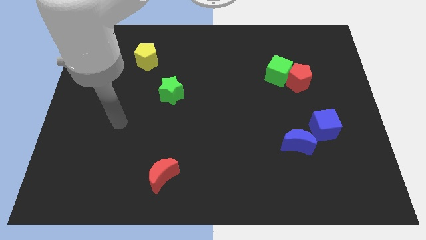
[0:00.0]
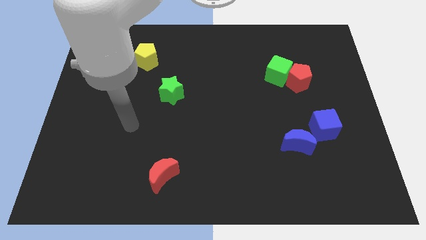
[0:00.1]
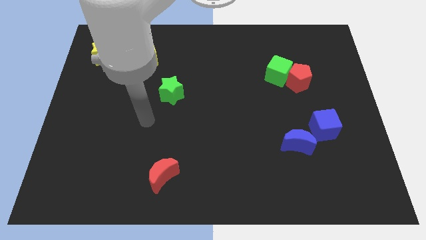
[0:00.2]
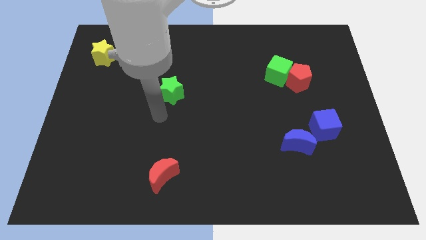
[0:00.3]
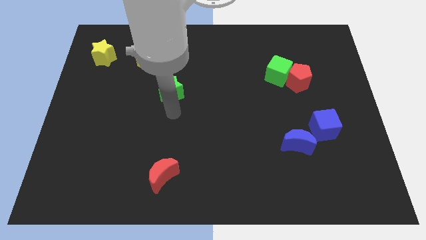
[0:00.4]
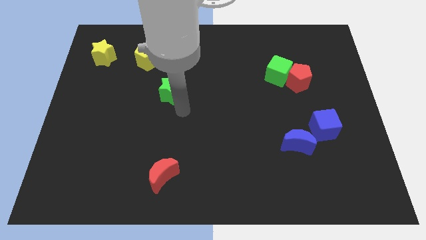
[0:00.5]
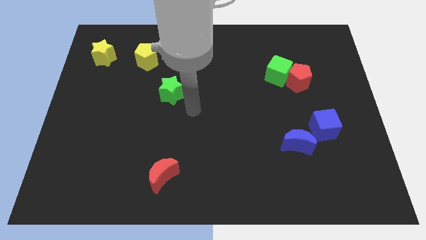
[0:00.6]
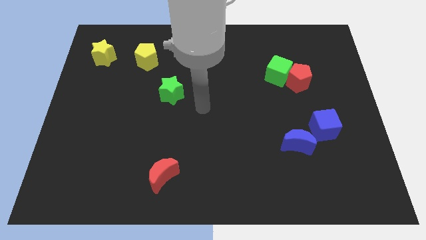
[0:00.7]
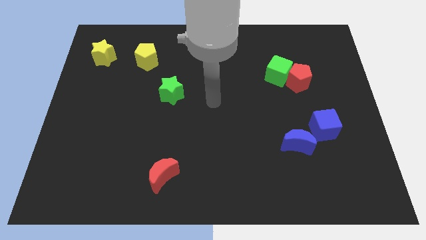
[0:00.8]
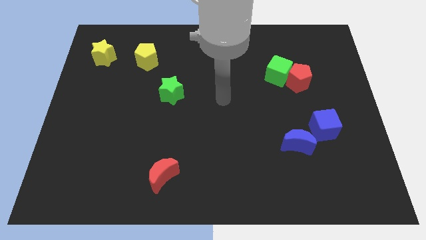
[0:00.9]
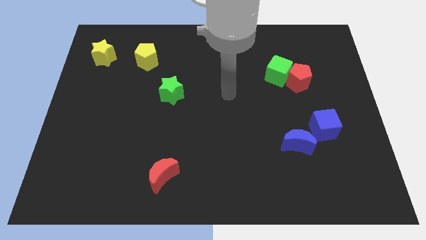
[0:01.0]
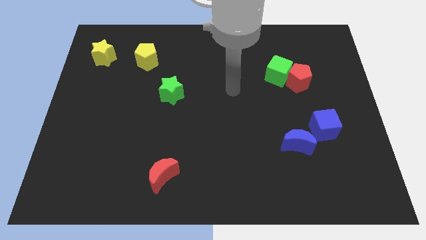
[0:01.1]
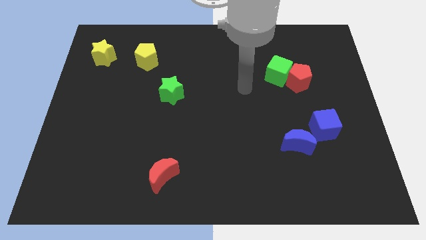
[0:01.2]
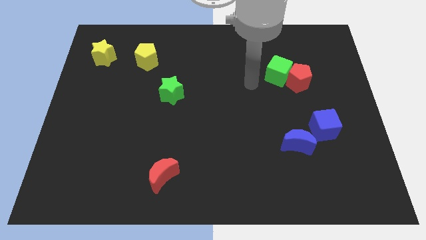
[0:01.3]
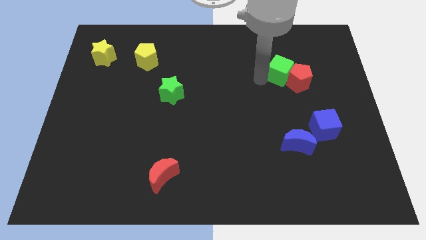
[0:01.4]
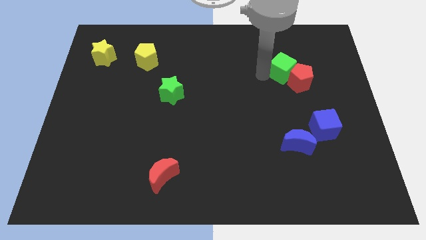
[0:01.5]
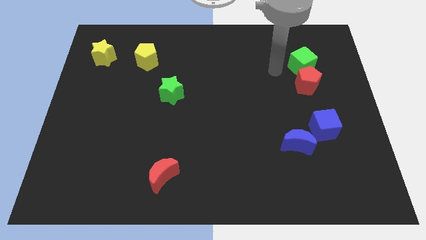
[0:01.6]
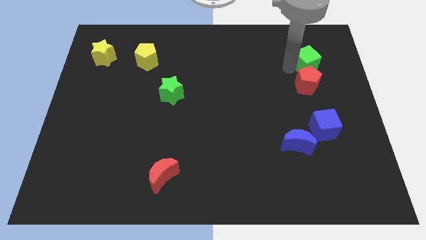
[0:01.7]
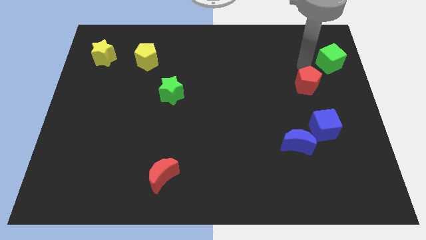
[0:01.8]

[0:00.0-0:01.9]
separate the red pentagon from the green cube

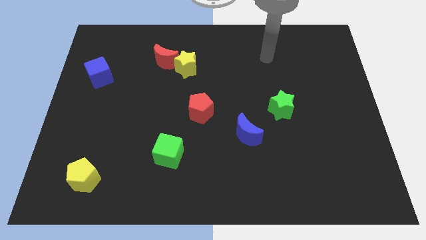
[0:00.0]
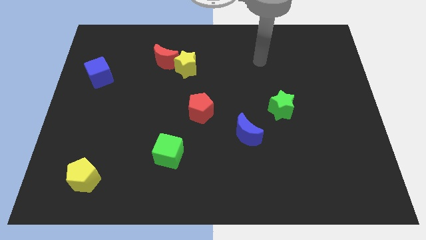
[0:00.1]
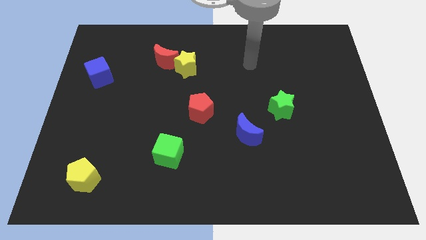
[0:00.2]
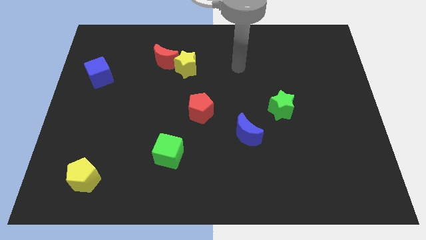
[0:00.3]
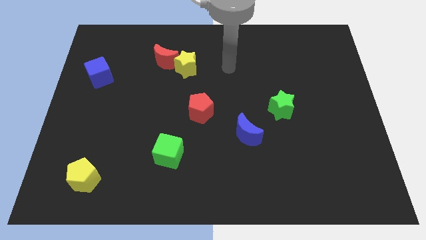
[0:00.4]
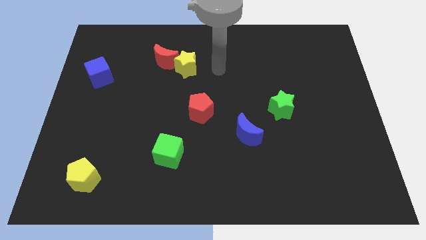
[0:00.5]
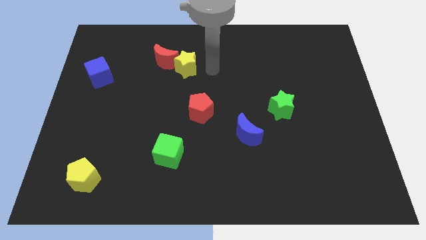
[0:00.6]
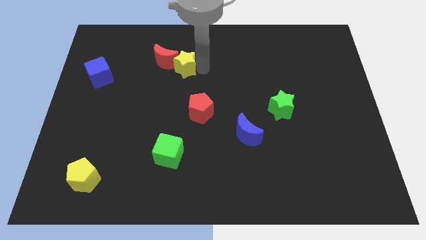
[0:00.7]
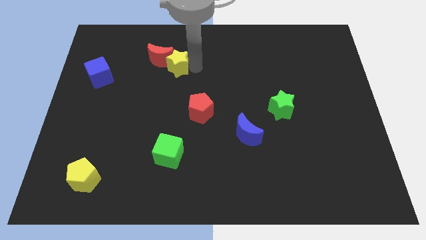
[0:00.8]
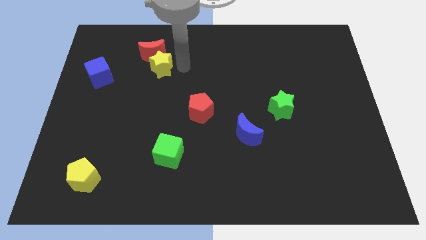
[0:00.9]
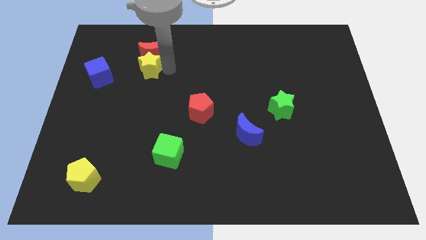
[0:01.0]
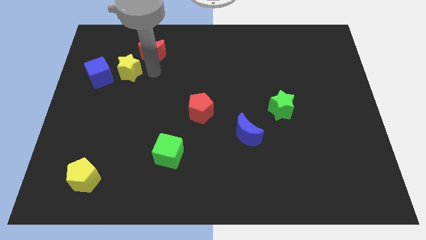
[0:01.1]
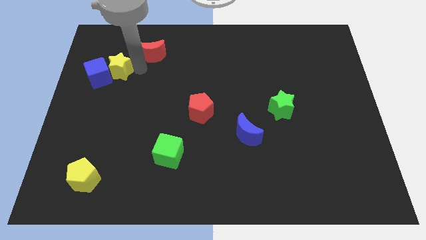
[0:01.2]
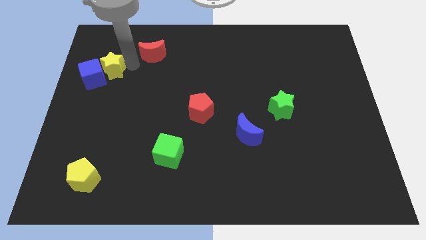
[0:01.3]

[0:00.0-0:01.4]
move the red moon away from the yellow star

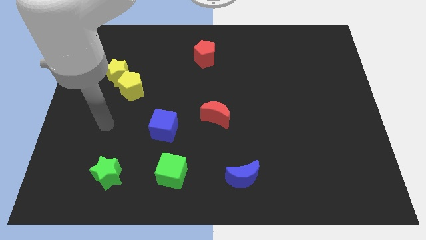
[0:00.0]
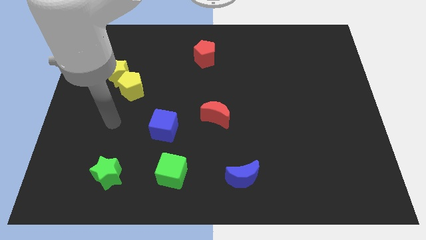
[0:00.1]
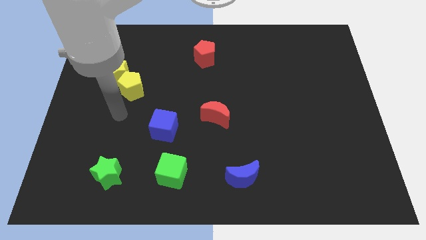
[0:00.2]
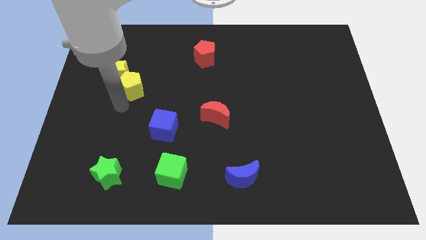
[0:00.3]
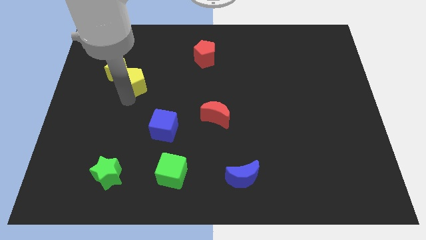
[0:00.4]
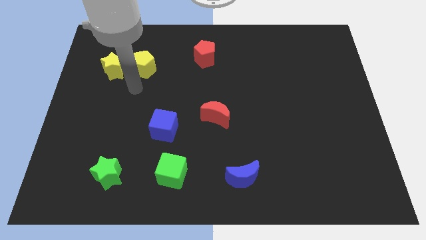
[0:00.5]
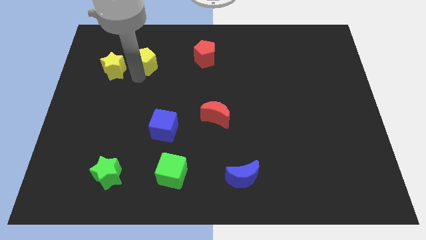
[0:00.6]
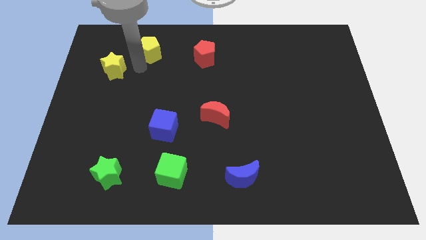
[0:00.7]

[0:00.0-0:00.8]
move the yellow star away from the yellow pentagon

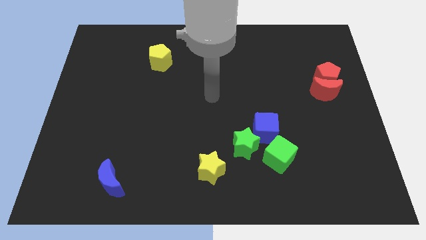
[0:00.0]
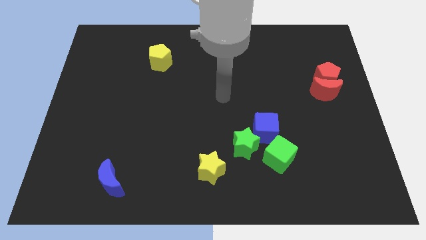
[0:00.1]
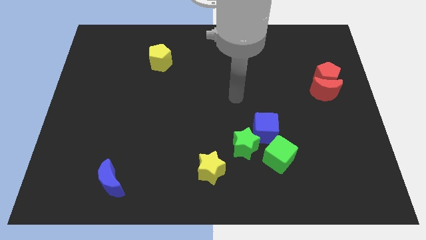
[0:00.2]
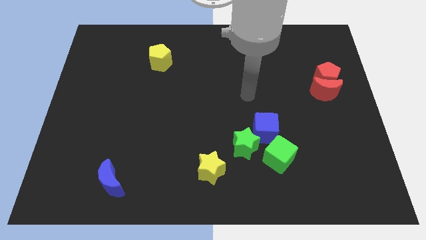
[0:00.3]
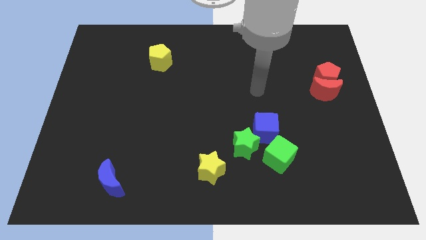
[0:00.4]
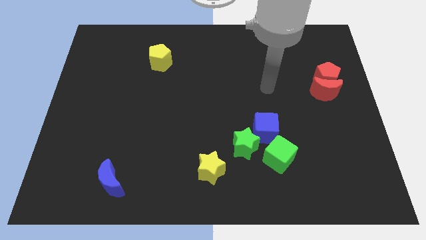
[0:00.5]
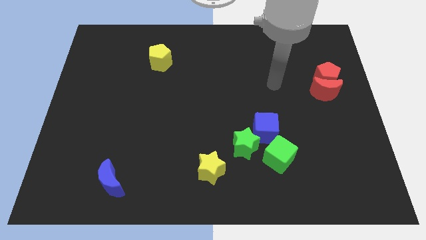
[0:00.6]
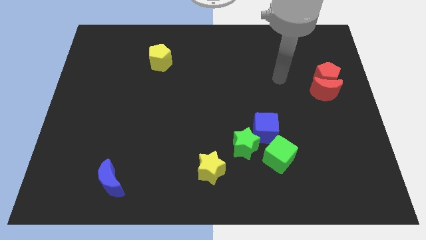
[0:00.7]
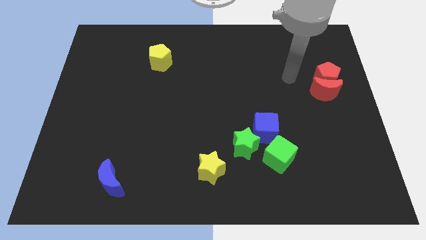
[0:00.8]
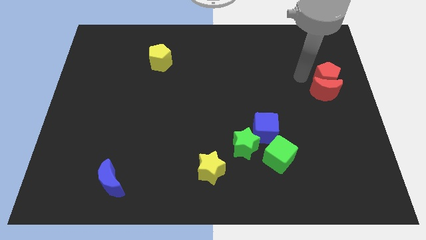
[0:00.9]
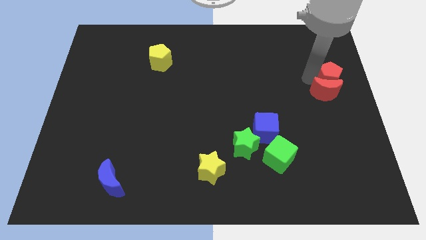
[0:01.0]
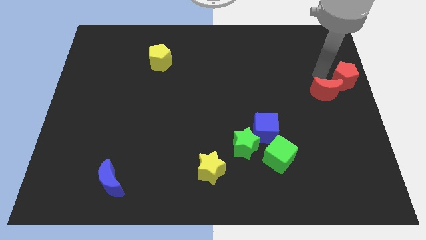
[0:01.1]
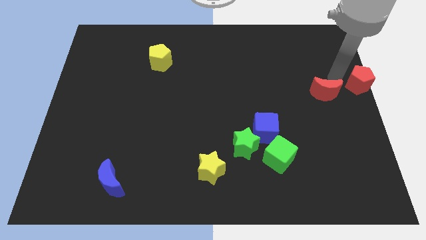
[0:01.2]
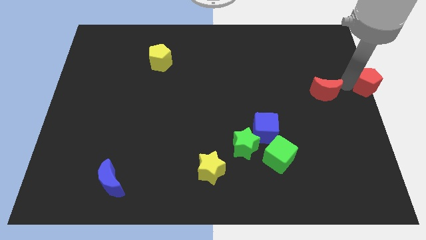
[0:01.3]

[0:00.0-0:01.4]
move the red moon away from the red pentagon

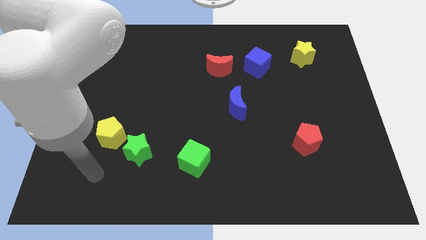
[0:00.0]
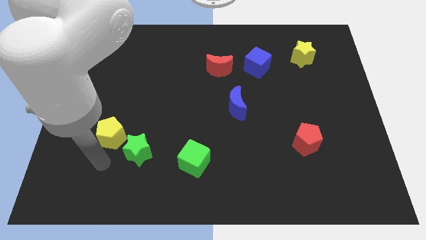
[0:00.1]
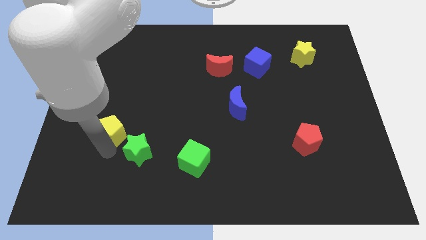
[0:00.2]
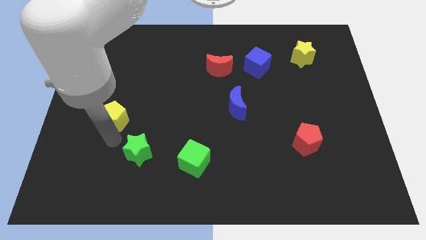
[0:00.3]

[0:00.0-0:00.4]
separate the green star from the yellow pentagon

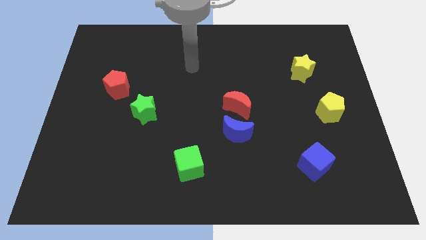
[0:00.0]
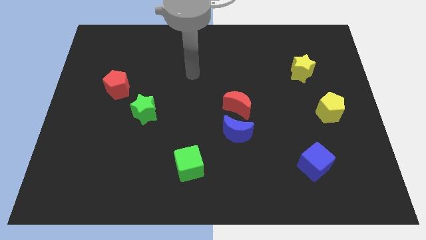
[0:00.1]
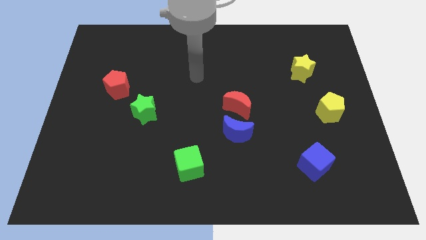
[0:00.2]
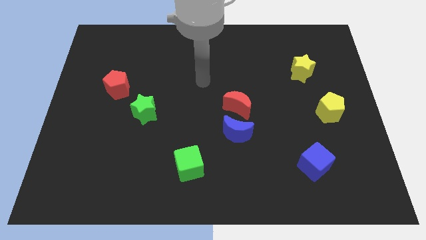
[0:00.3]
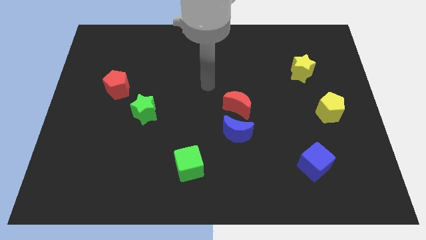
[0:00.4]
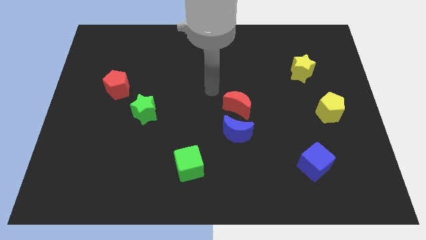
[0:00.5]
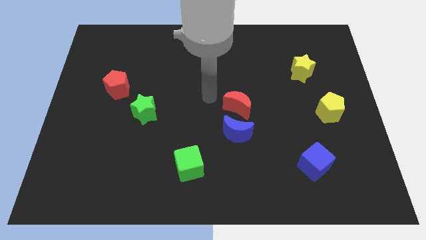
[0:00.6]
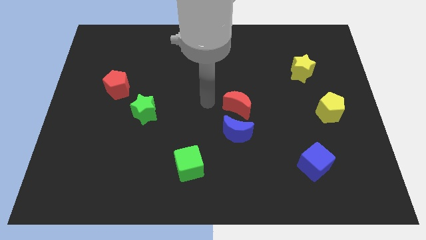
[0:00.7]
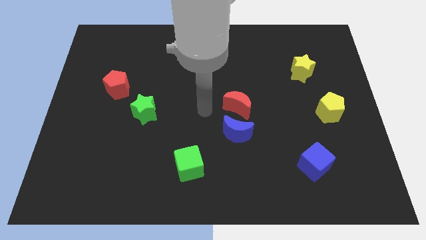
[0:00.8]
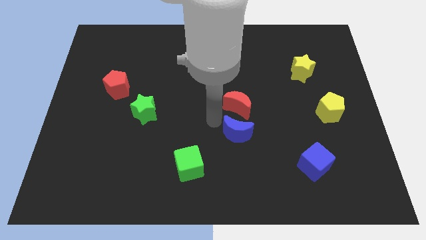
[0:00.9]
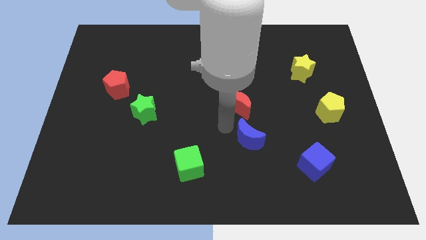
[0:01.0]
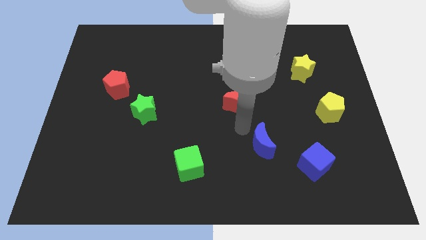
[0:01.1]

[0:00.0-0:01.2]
move the red moon away from the blue moon

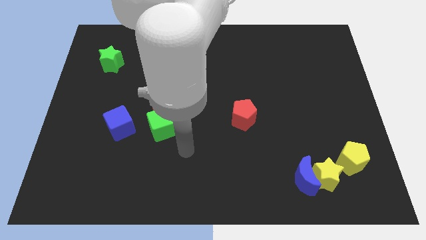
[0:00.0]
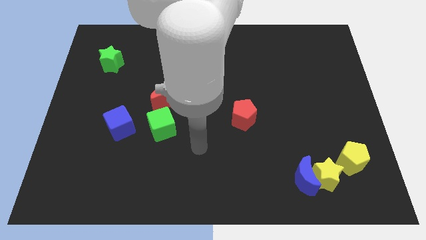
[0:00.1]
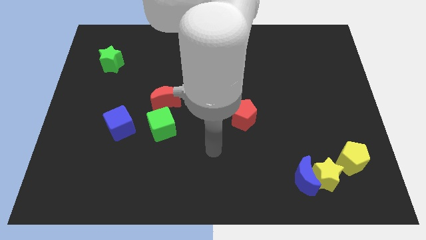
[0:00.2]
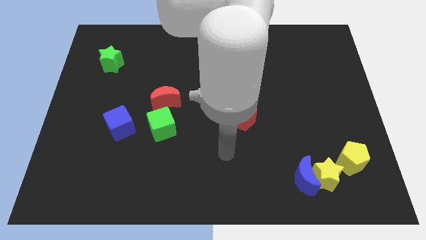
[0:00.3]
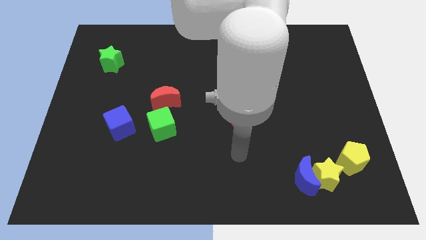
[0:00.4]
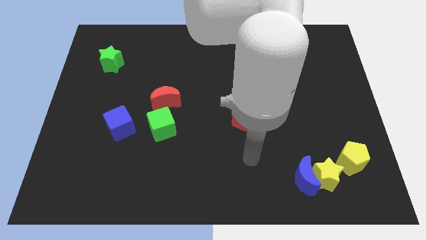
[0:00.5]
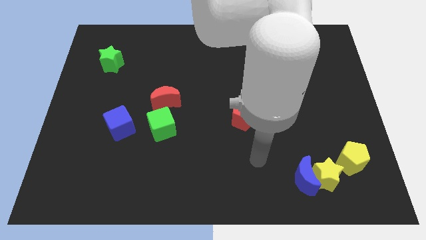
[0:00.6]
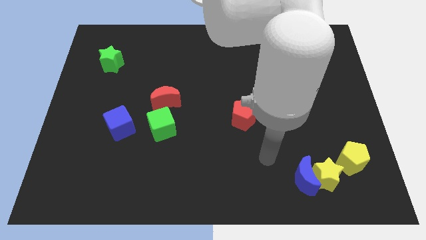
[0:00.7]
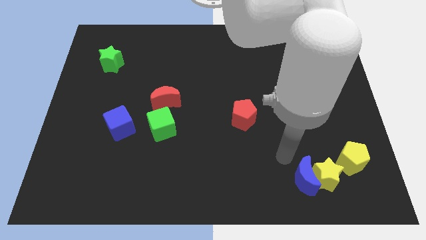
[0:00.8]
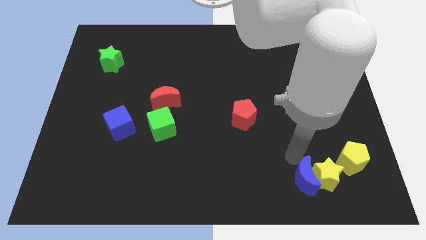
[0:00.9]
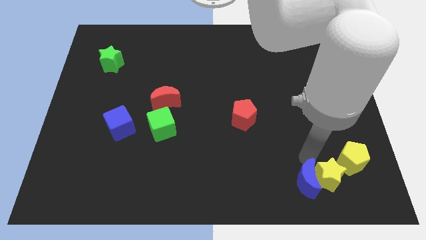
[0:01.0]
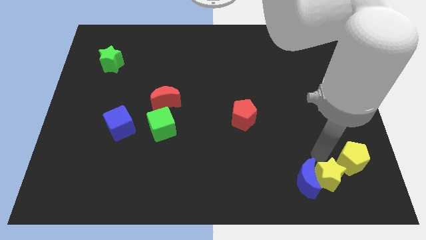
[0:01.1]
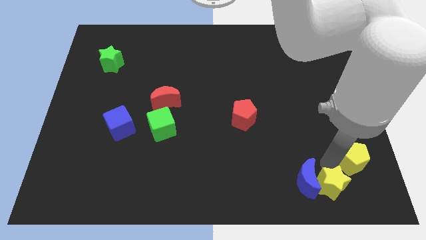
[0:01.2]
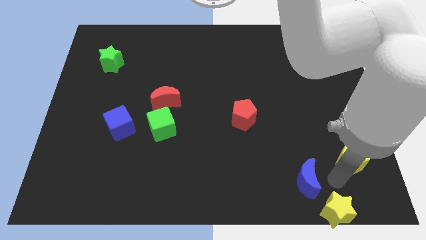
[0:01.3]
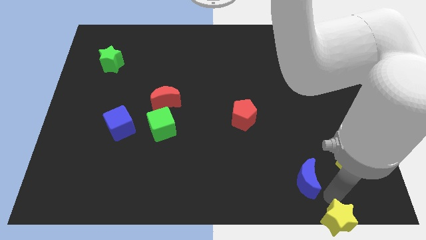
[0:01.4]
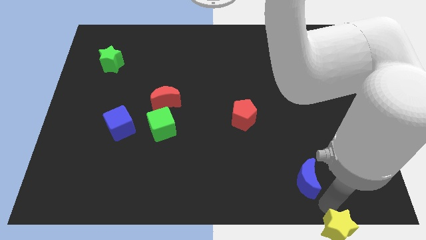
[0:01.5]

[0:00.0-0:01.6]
pull the blue moon apart from the yellow star

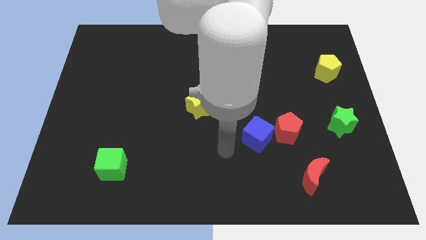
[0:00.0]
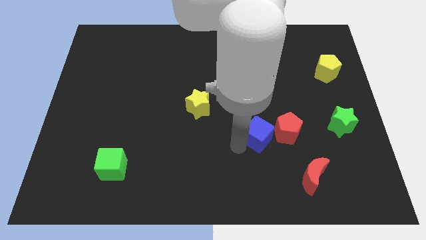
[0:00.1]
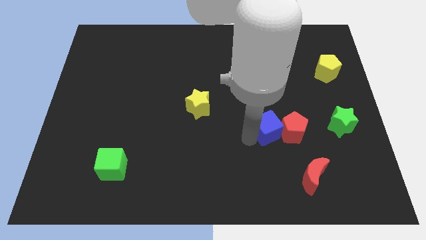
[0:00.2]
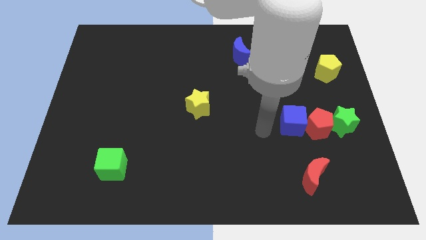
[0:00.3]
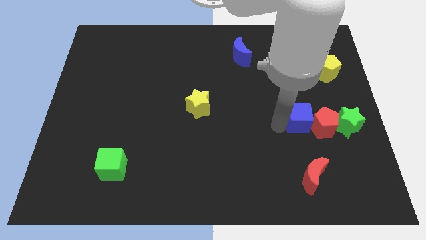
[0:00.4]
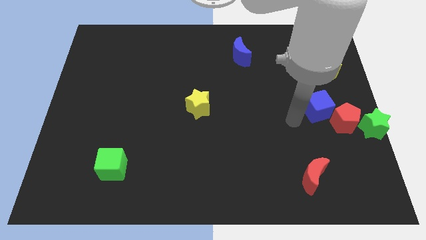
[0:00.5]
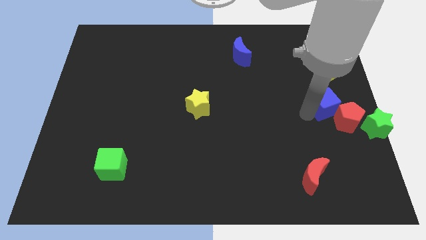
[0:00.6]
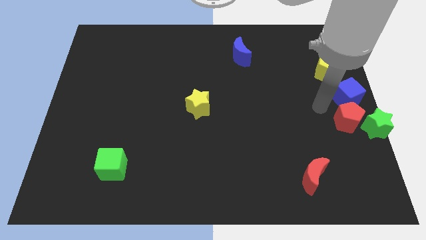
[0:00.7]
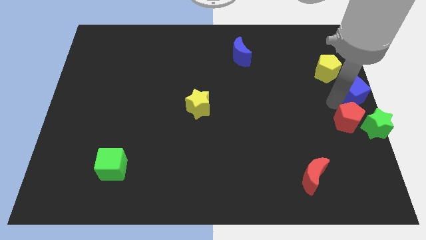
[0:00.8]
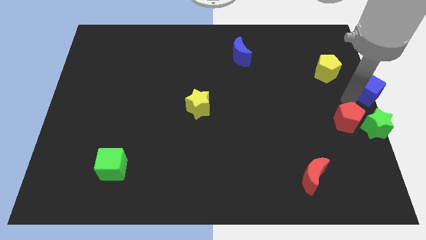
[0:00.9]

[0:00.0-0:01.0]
move the red pentagon away from the blue cube
